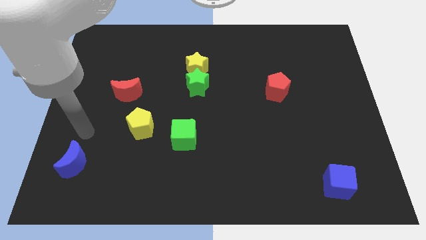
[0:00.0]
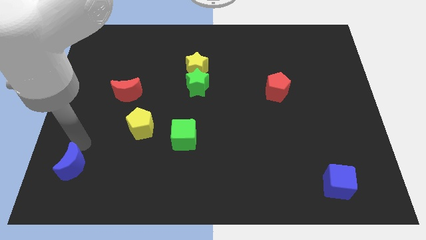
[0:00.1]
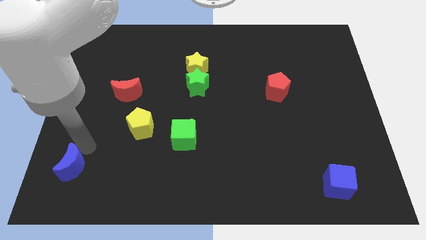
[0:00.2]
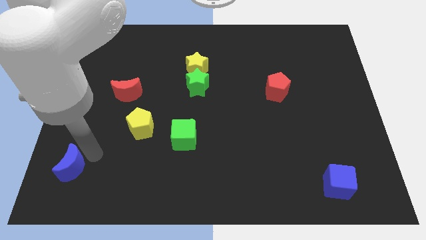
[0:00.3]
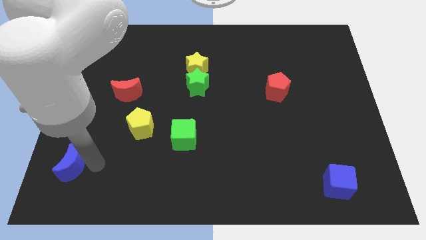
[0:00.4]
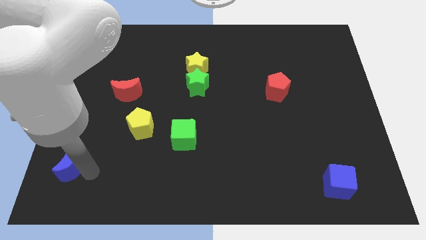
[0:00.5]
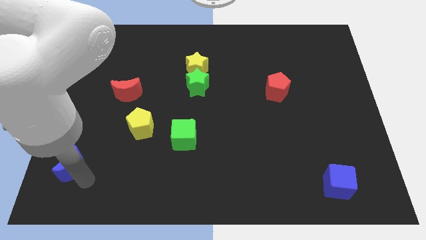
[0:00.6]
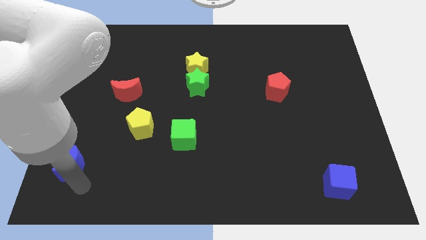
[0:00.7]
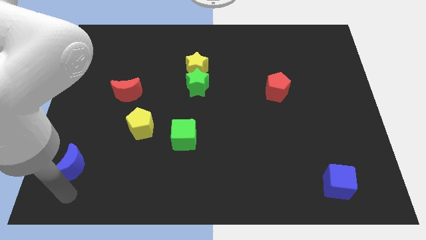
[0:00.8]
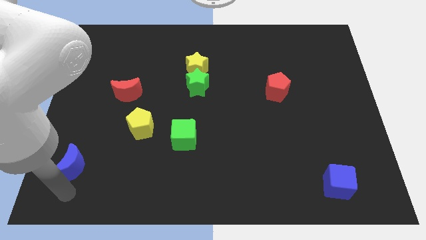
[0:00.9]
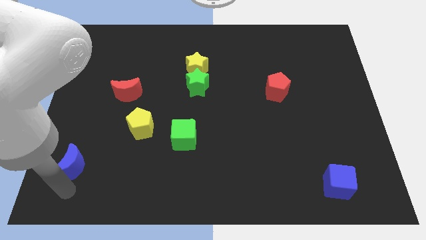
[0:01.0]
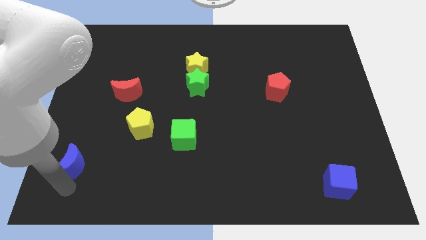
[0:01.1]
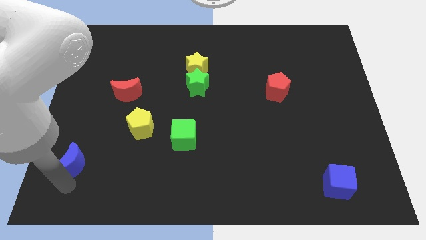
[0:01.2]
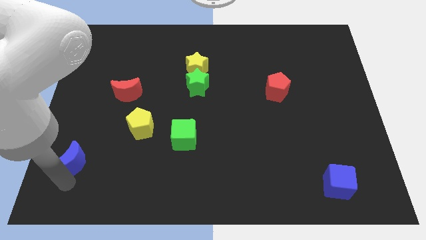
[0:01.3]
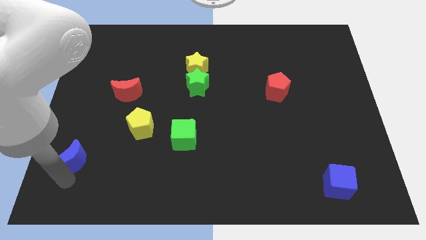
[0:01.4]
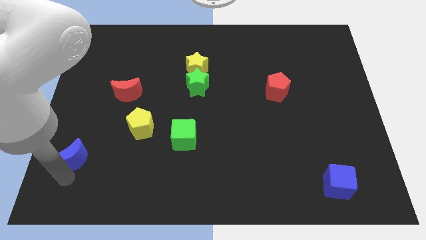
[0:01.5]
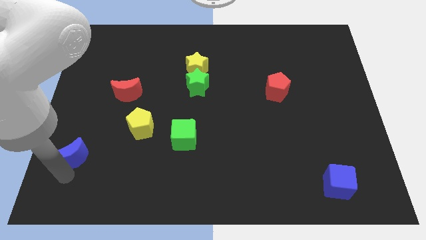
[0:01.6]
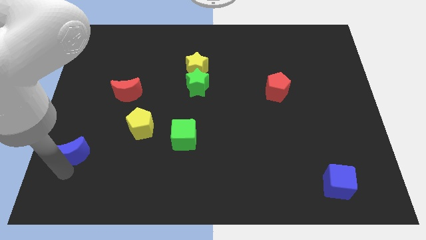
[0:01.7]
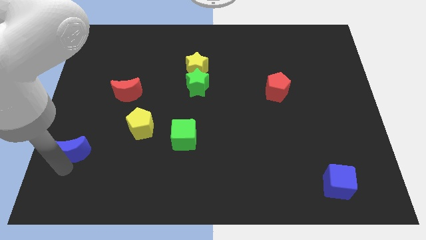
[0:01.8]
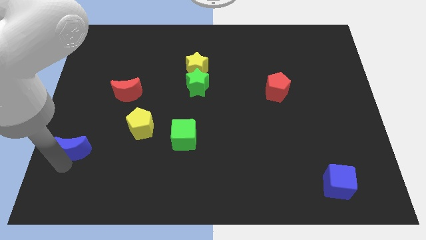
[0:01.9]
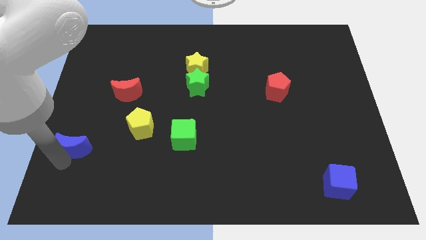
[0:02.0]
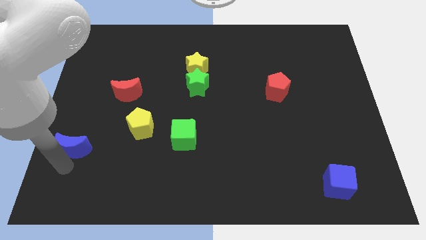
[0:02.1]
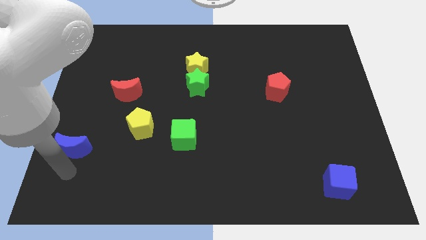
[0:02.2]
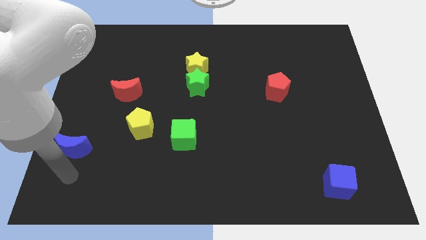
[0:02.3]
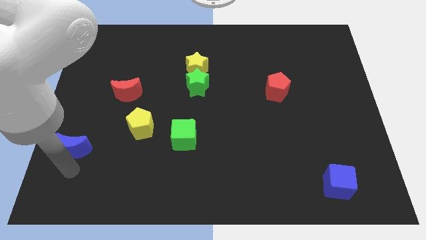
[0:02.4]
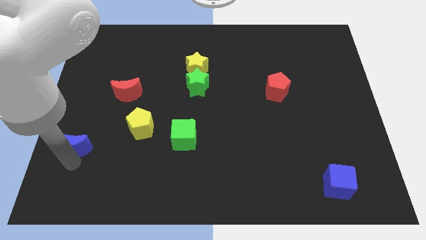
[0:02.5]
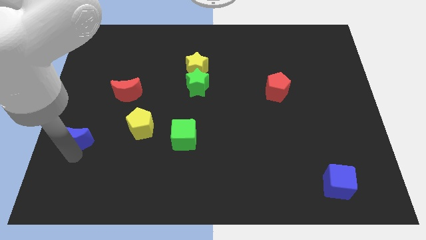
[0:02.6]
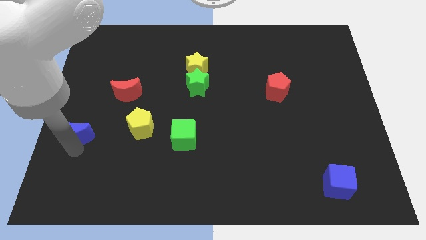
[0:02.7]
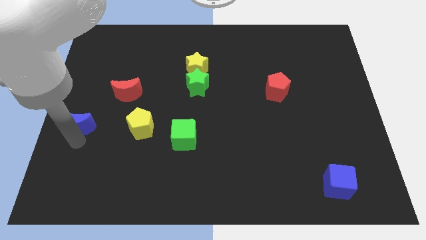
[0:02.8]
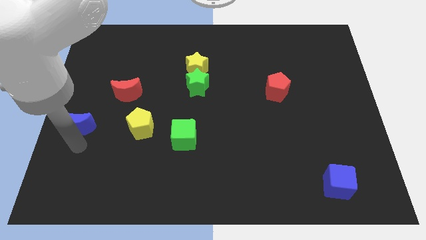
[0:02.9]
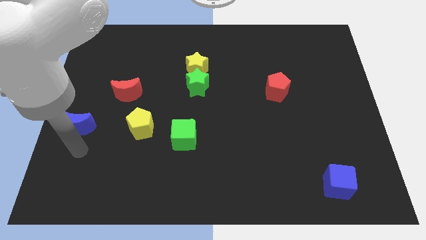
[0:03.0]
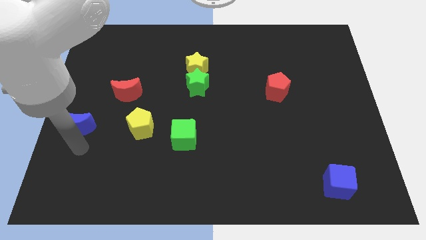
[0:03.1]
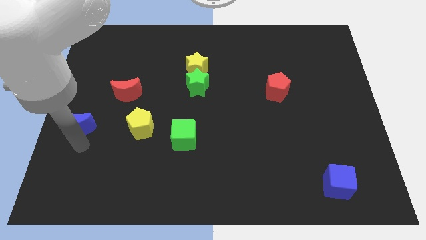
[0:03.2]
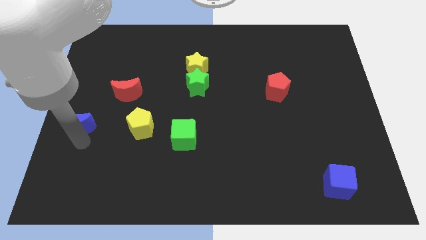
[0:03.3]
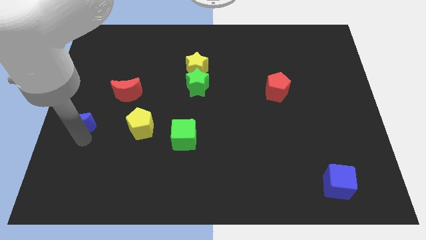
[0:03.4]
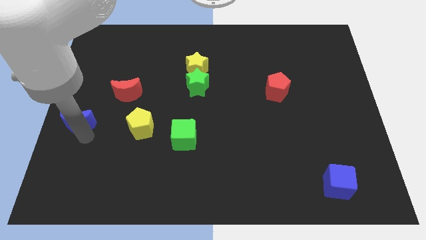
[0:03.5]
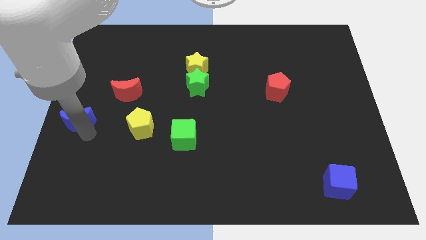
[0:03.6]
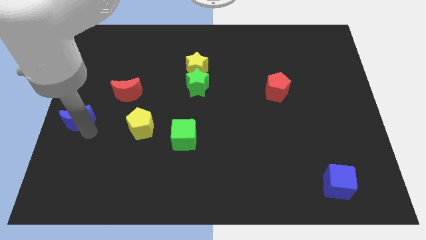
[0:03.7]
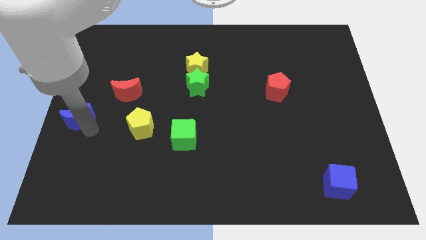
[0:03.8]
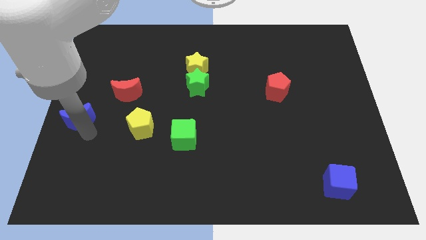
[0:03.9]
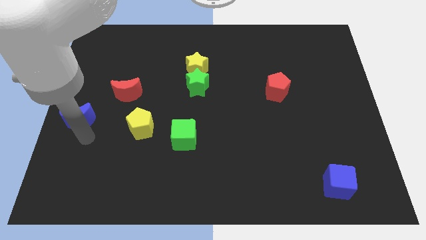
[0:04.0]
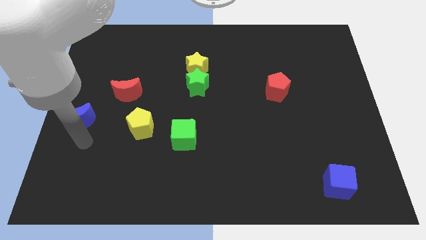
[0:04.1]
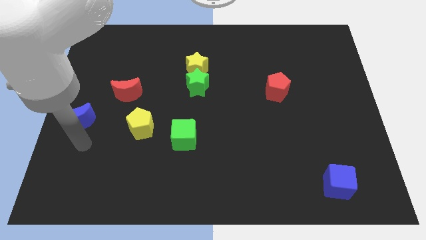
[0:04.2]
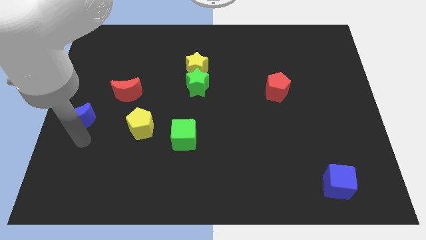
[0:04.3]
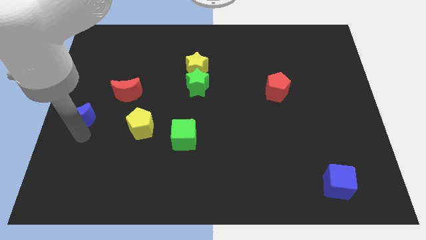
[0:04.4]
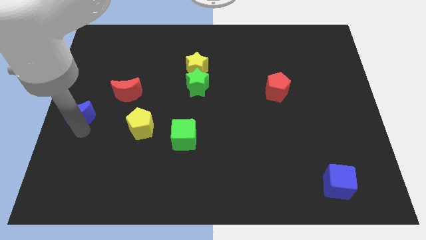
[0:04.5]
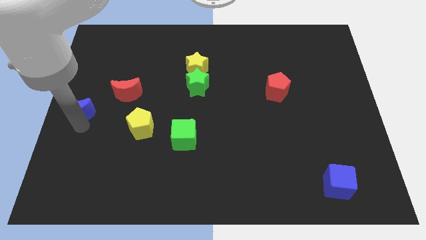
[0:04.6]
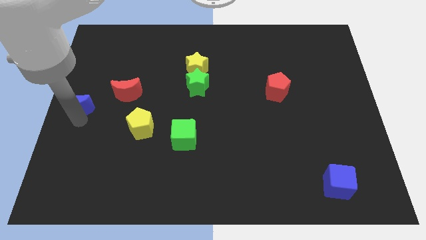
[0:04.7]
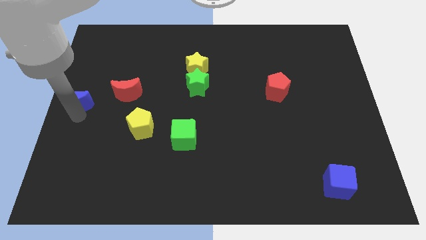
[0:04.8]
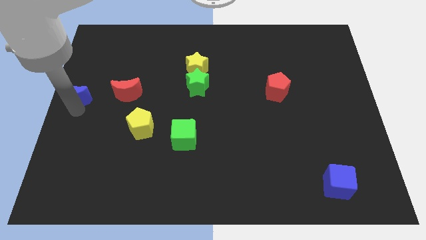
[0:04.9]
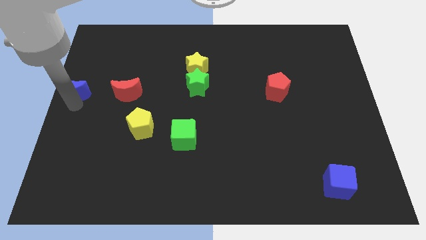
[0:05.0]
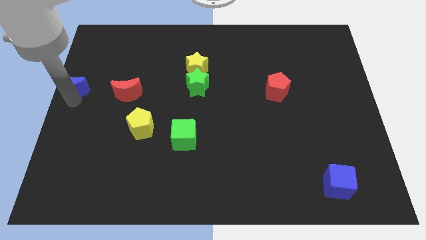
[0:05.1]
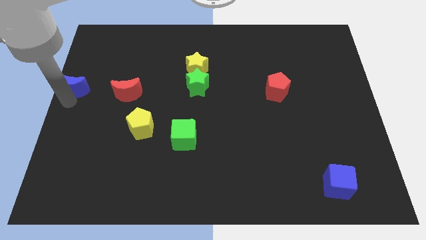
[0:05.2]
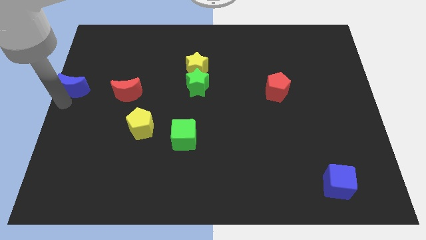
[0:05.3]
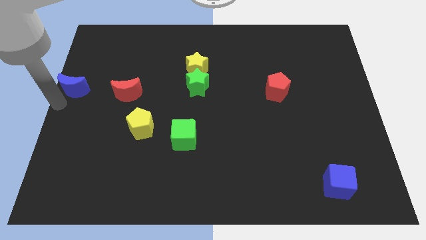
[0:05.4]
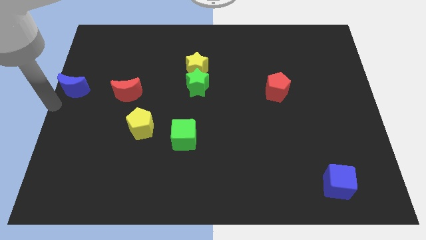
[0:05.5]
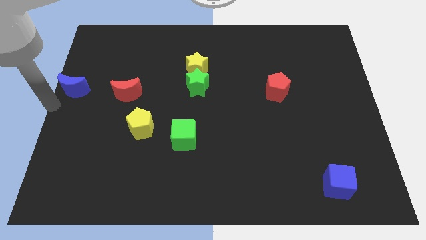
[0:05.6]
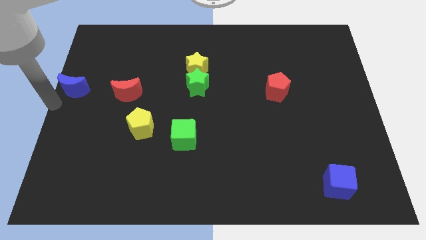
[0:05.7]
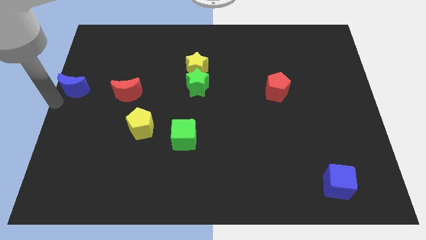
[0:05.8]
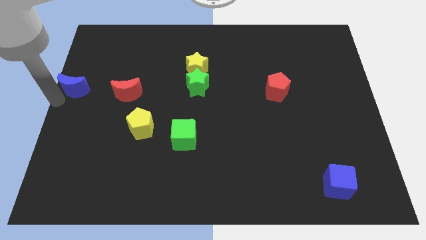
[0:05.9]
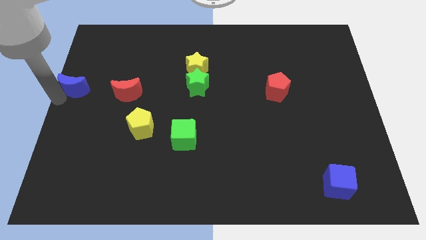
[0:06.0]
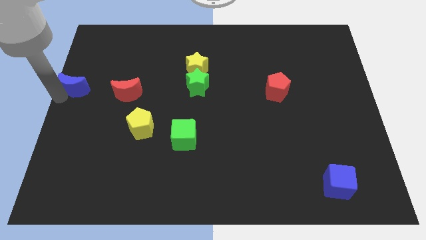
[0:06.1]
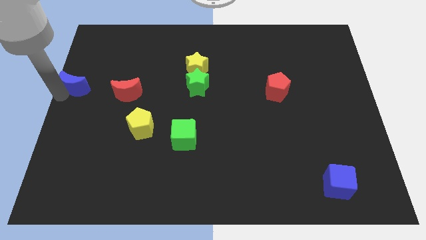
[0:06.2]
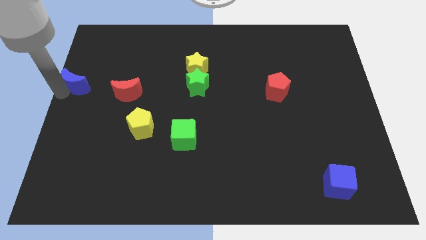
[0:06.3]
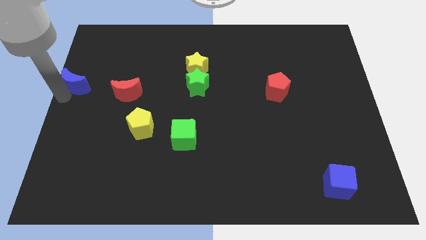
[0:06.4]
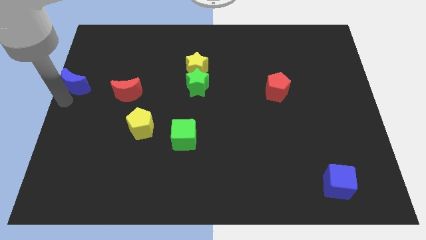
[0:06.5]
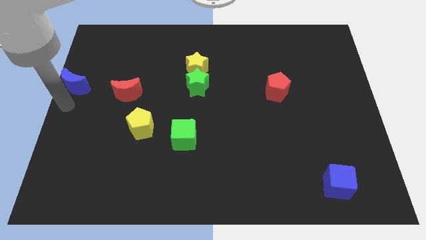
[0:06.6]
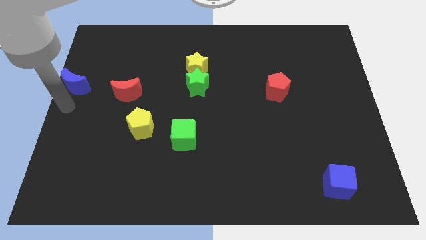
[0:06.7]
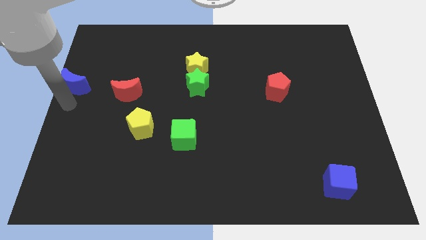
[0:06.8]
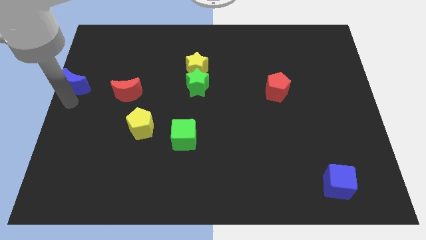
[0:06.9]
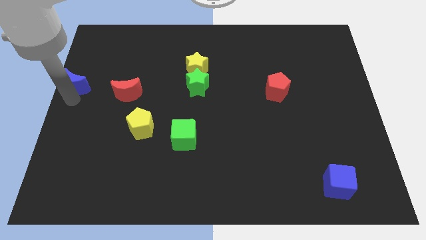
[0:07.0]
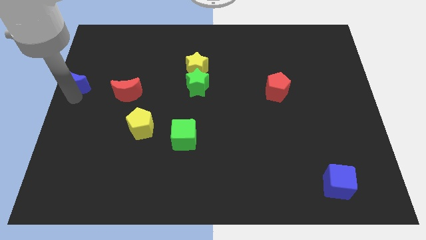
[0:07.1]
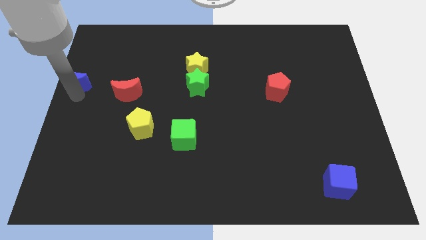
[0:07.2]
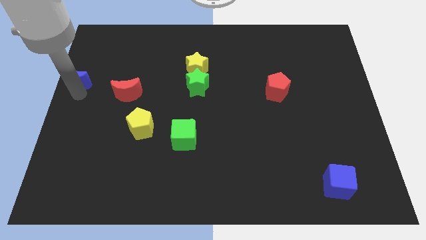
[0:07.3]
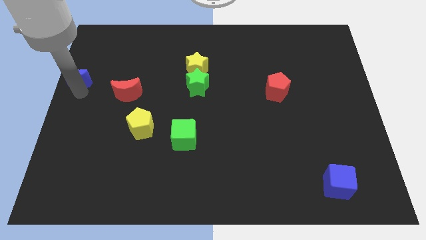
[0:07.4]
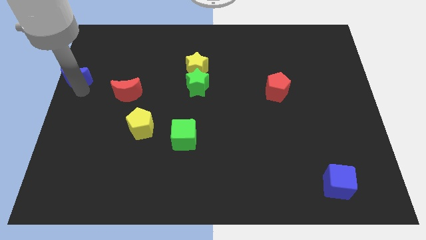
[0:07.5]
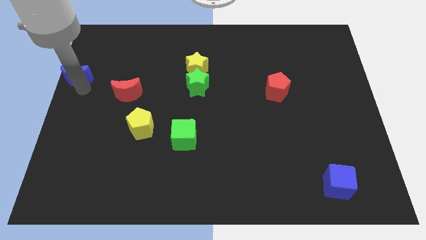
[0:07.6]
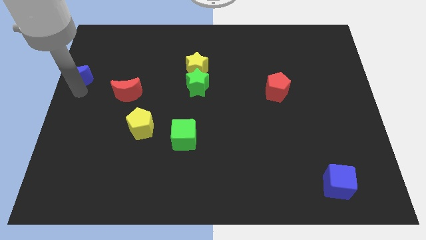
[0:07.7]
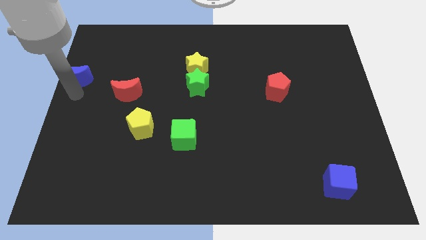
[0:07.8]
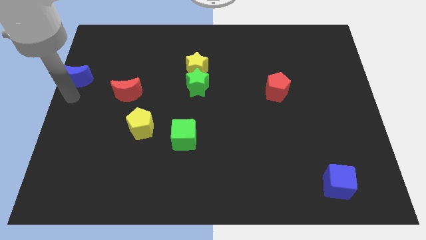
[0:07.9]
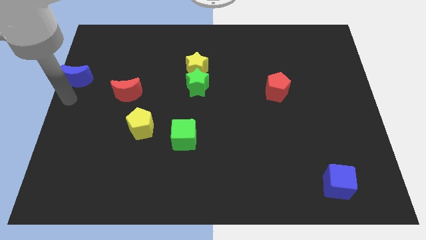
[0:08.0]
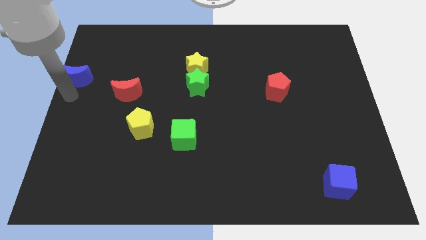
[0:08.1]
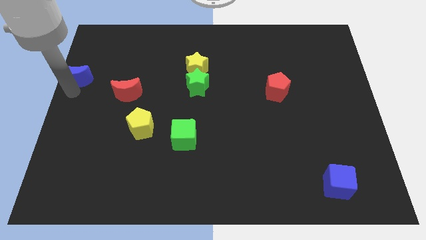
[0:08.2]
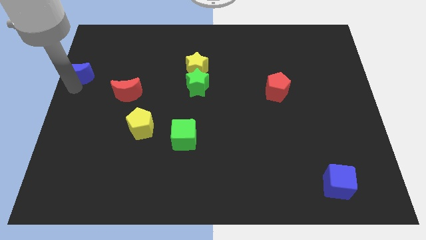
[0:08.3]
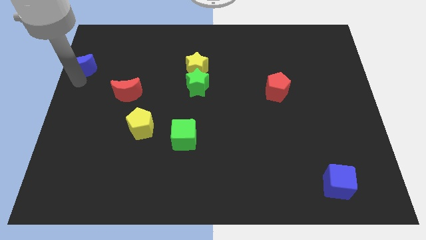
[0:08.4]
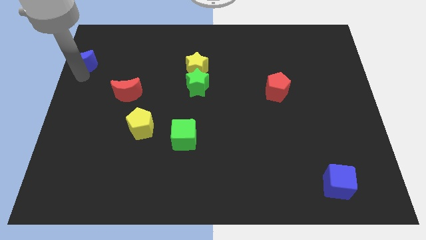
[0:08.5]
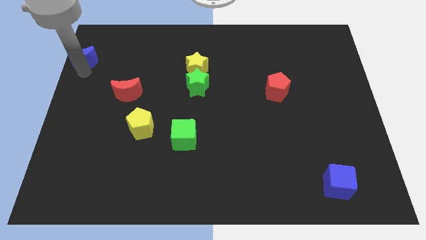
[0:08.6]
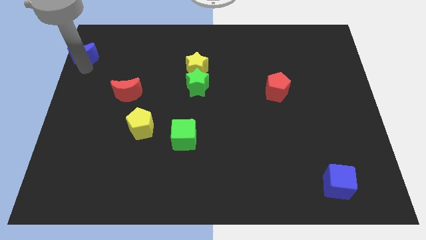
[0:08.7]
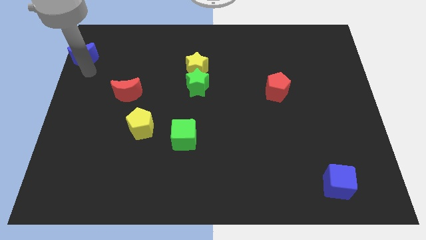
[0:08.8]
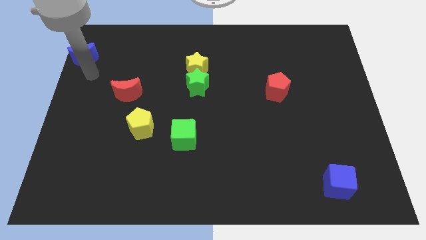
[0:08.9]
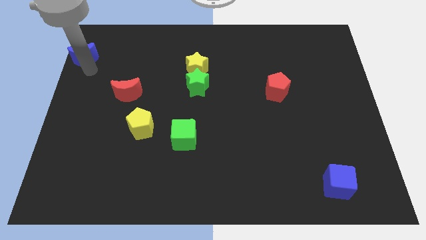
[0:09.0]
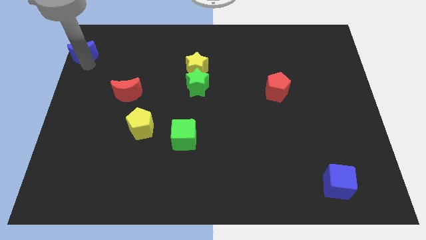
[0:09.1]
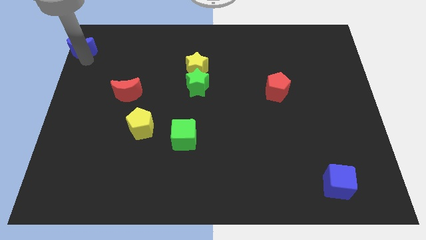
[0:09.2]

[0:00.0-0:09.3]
move the blue moon to the upper left corner
